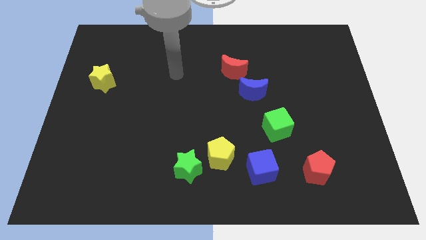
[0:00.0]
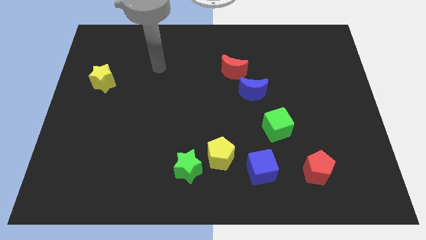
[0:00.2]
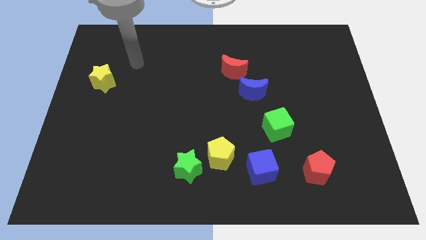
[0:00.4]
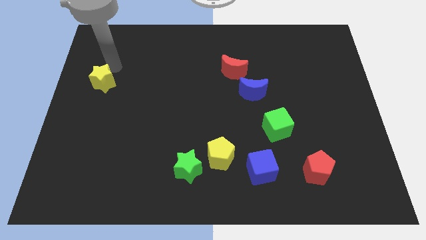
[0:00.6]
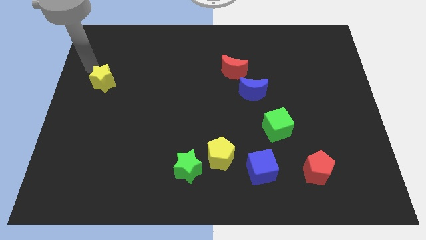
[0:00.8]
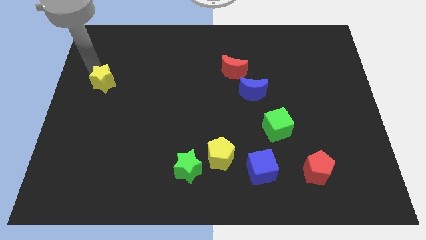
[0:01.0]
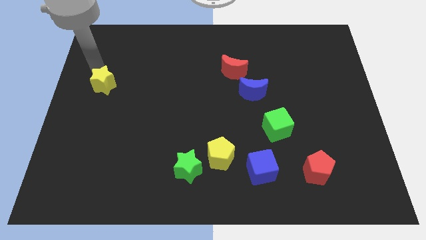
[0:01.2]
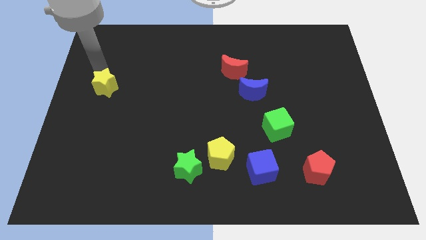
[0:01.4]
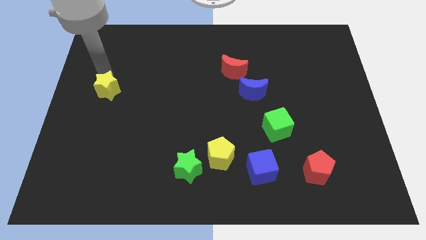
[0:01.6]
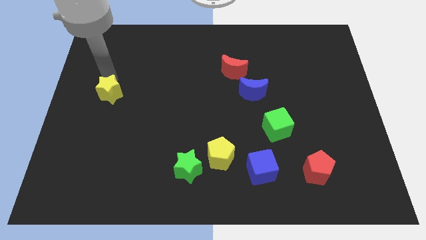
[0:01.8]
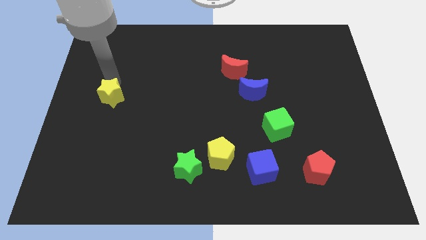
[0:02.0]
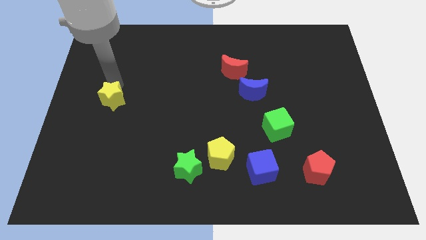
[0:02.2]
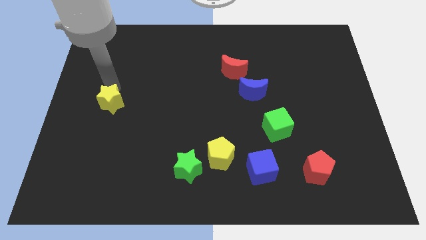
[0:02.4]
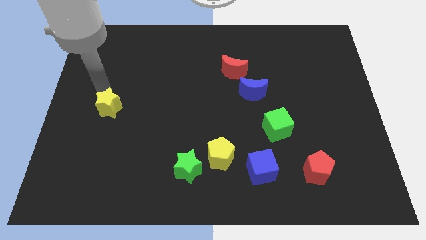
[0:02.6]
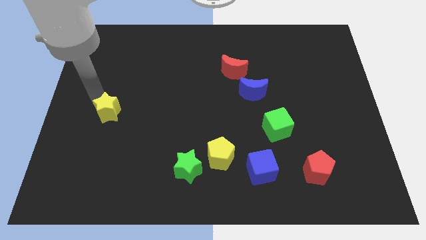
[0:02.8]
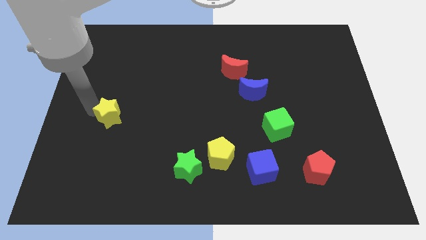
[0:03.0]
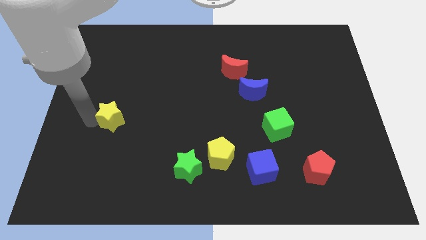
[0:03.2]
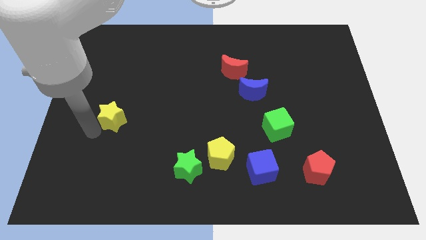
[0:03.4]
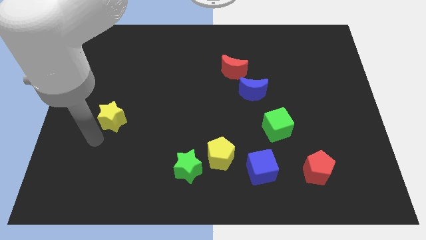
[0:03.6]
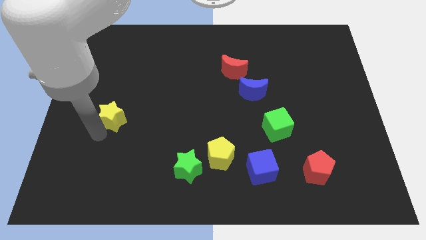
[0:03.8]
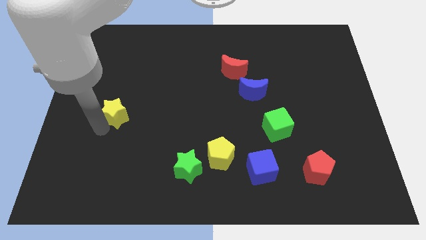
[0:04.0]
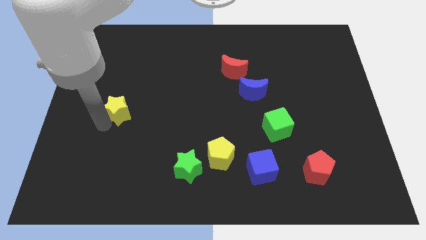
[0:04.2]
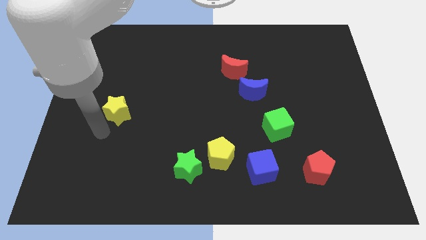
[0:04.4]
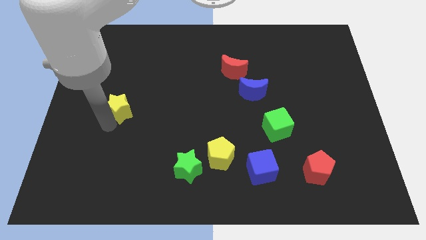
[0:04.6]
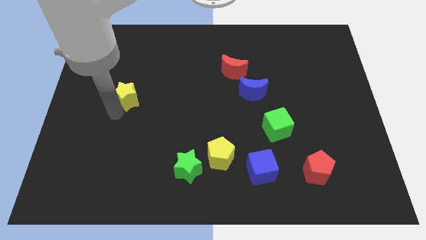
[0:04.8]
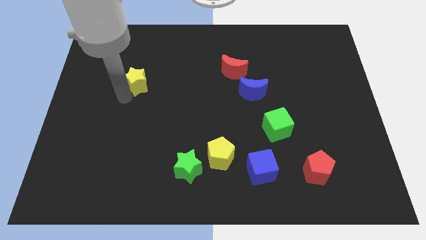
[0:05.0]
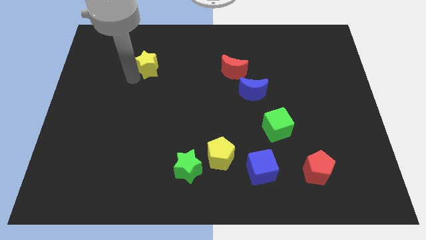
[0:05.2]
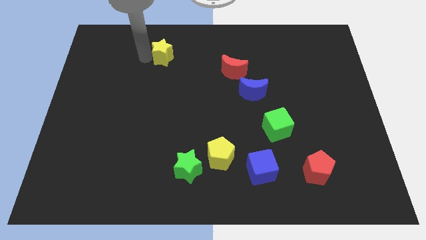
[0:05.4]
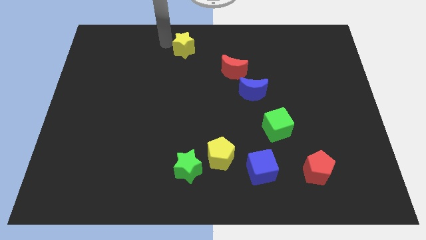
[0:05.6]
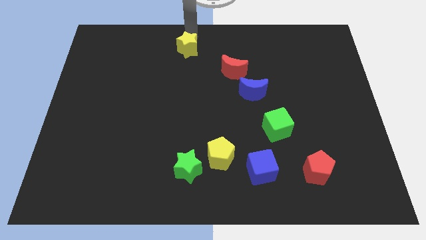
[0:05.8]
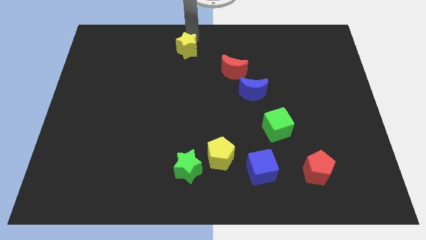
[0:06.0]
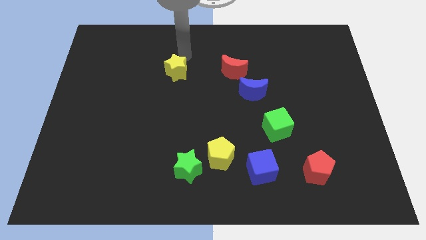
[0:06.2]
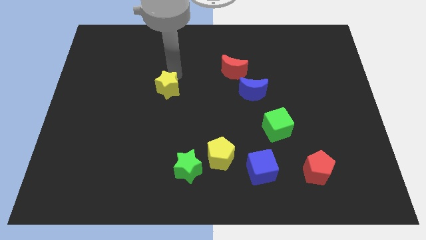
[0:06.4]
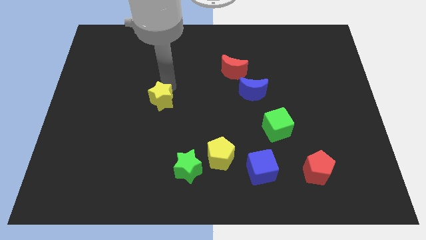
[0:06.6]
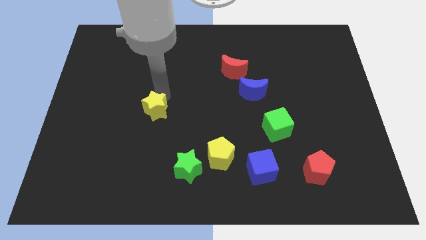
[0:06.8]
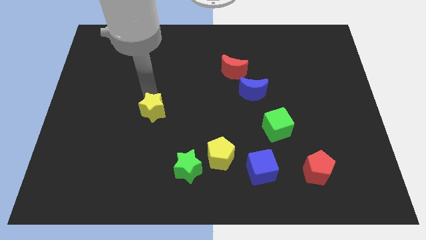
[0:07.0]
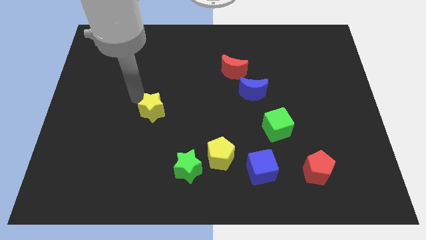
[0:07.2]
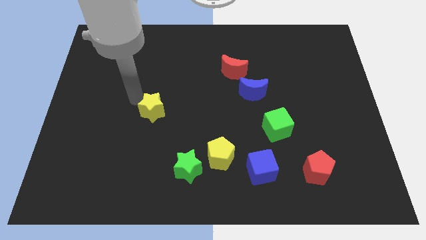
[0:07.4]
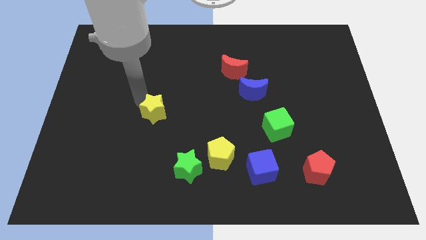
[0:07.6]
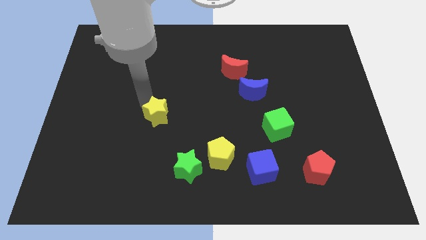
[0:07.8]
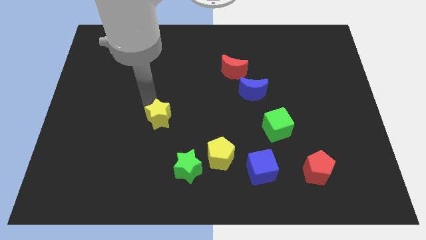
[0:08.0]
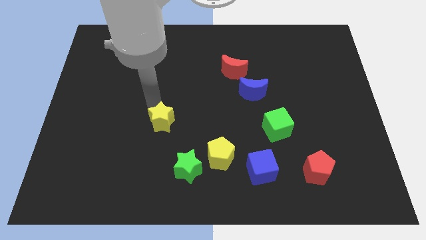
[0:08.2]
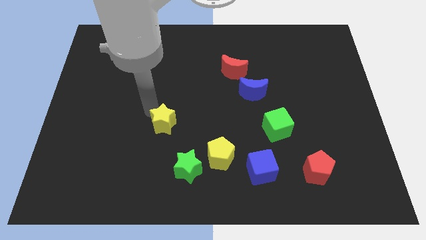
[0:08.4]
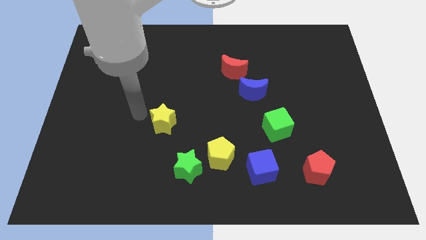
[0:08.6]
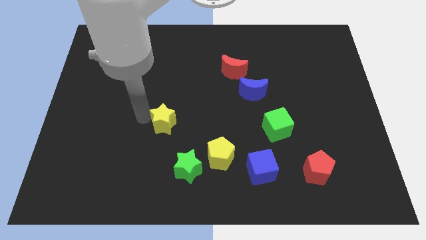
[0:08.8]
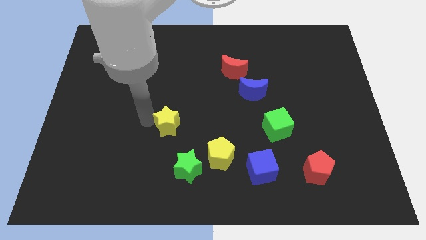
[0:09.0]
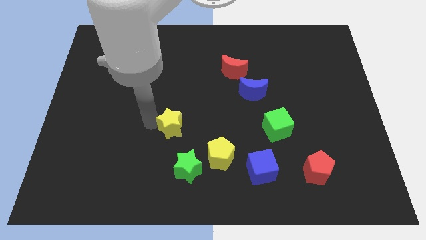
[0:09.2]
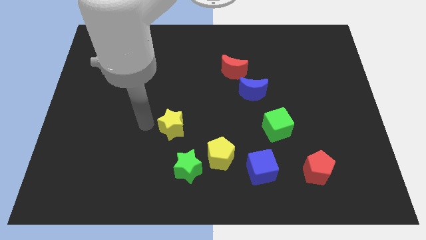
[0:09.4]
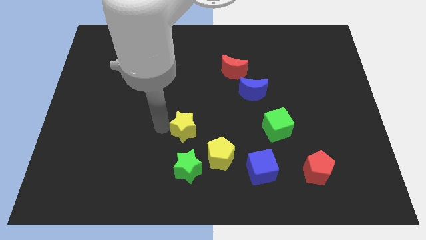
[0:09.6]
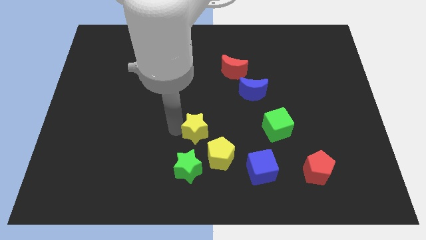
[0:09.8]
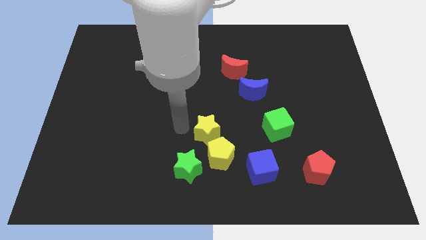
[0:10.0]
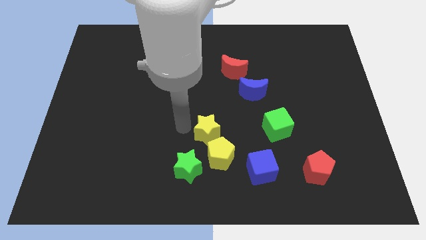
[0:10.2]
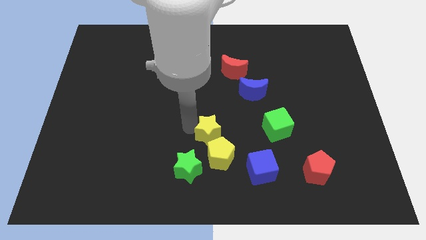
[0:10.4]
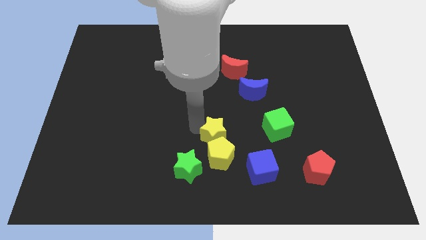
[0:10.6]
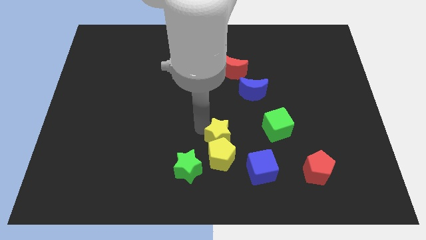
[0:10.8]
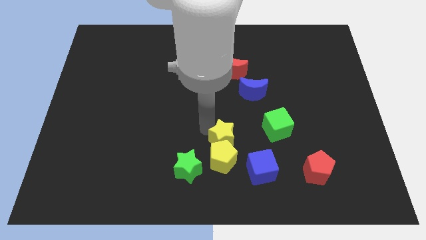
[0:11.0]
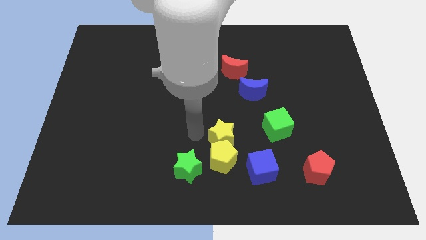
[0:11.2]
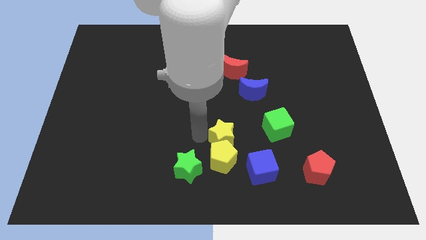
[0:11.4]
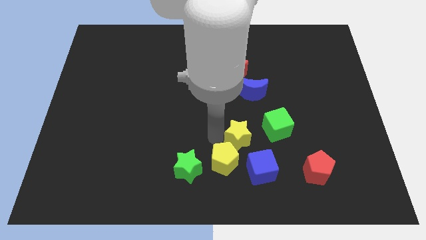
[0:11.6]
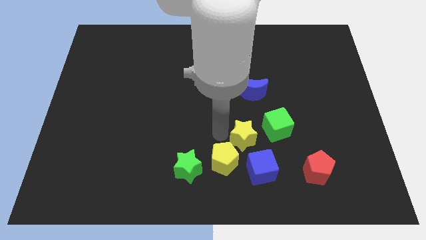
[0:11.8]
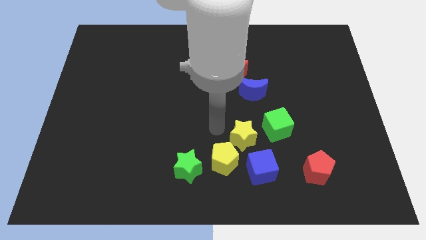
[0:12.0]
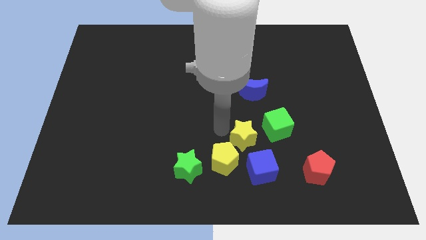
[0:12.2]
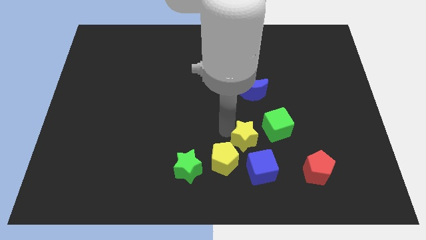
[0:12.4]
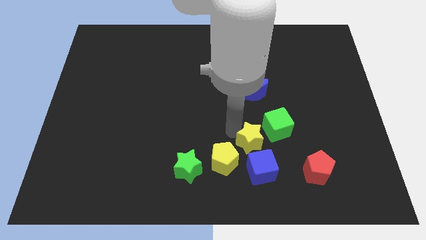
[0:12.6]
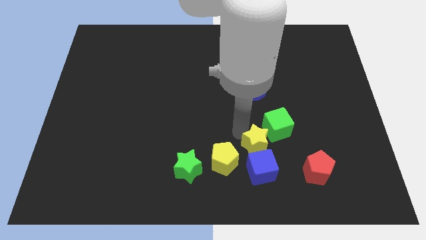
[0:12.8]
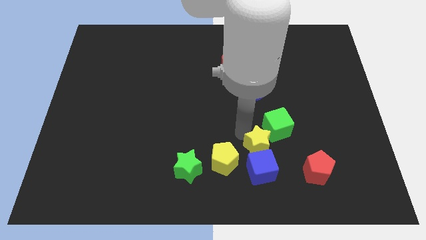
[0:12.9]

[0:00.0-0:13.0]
move the yellow star to the bottom side of the green cube
